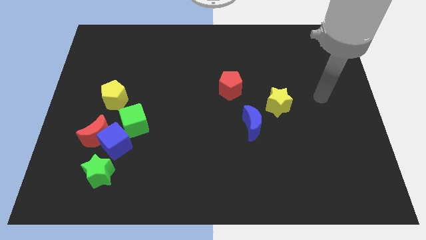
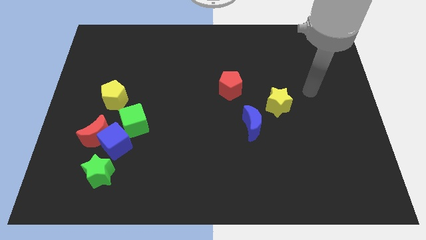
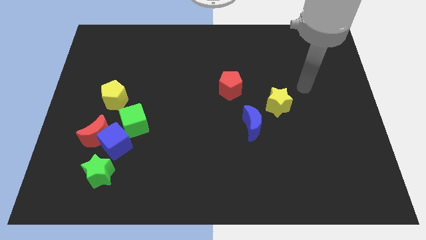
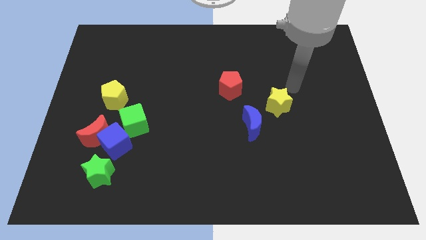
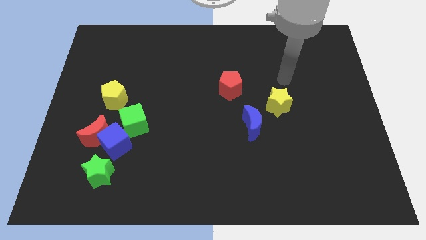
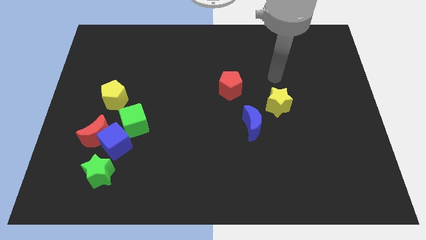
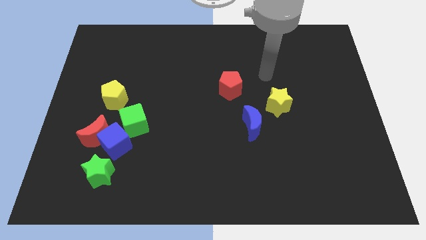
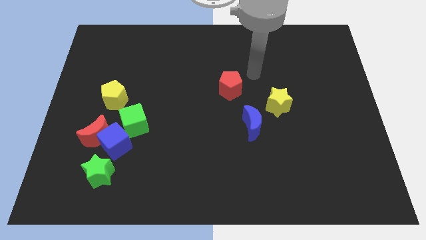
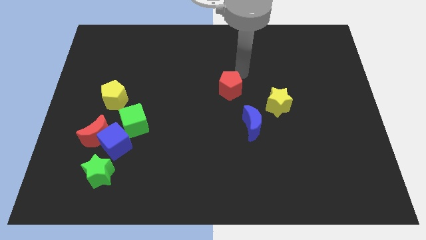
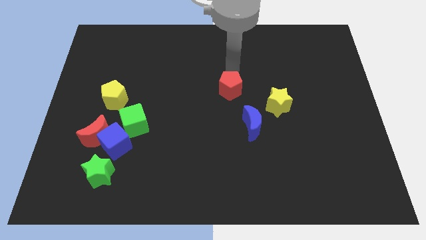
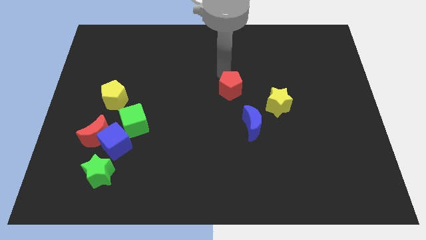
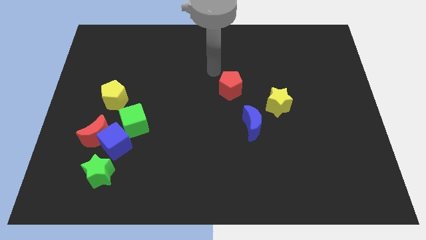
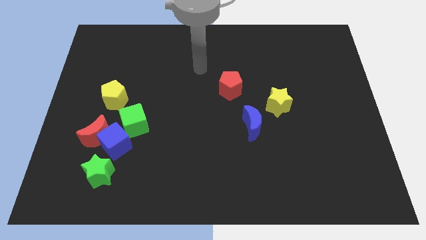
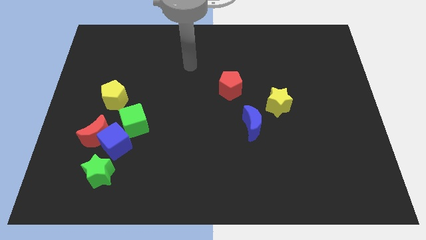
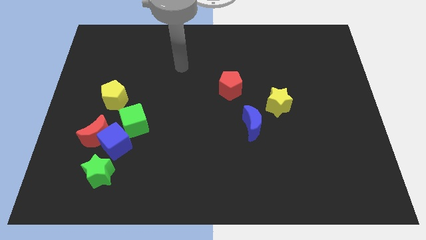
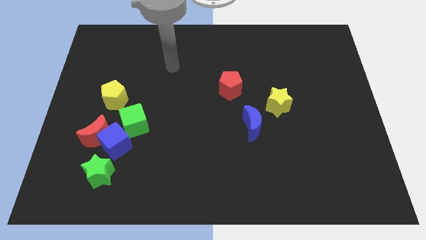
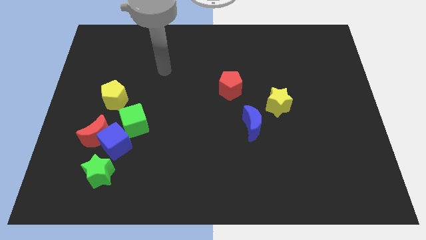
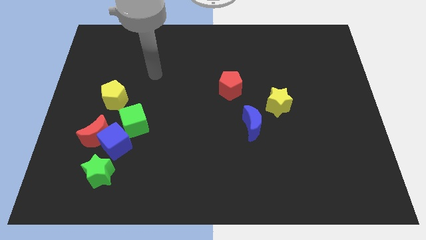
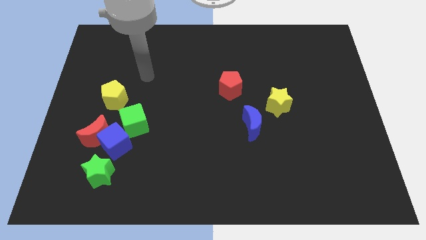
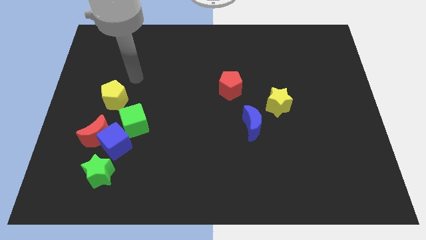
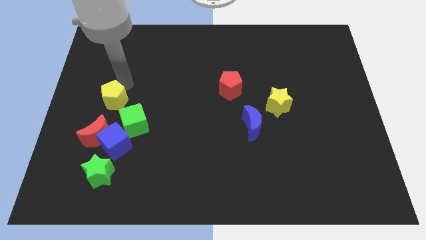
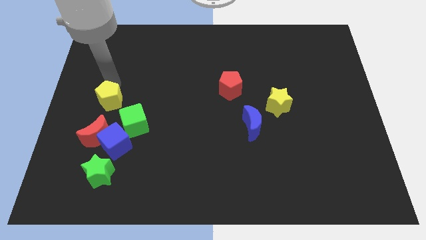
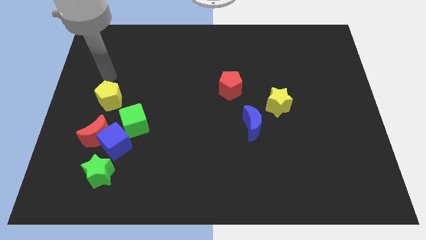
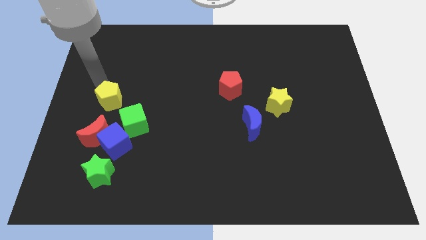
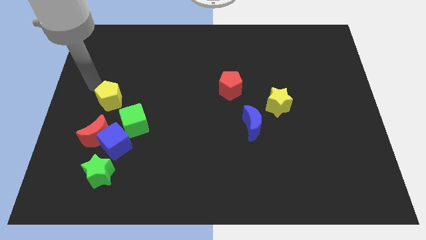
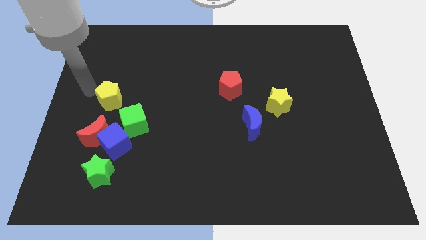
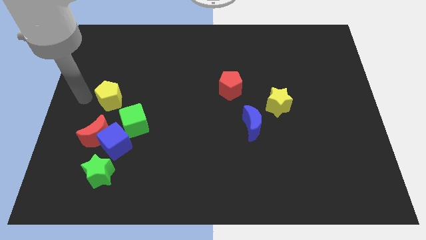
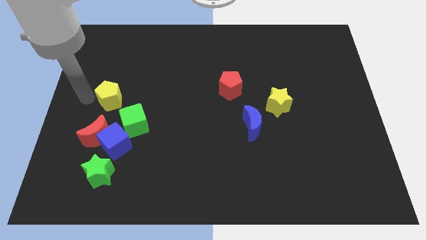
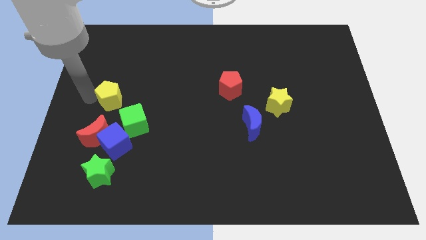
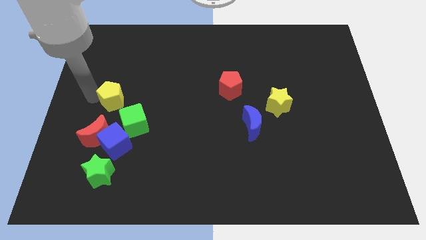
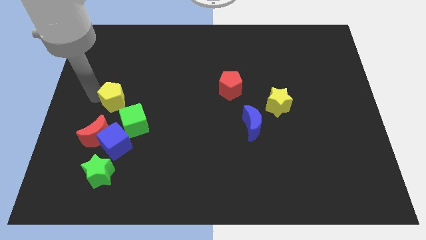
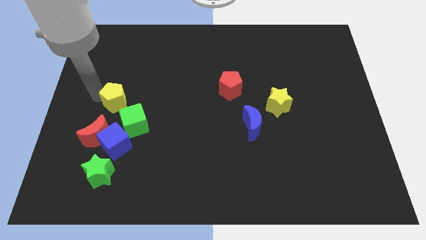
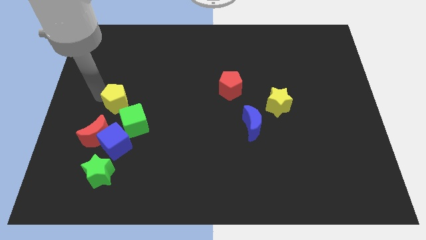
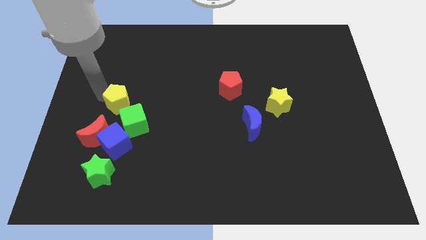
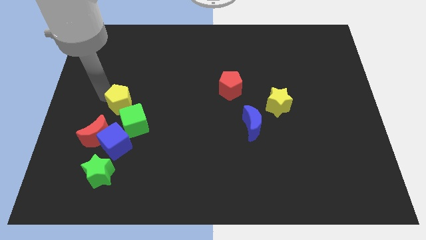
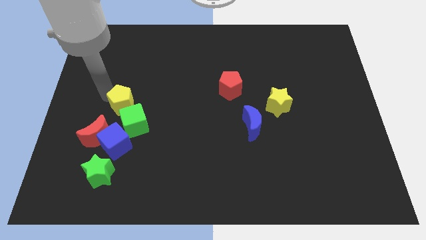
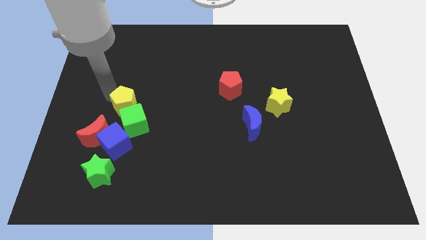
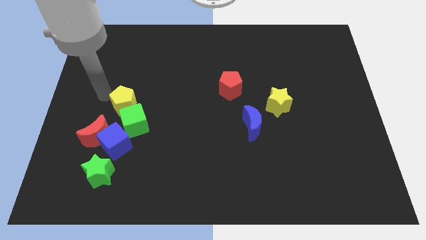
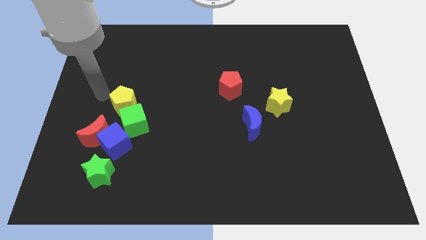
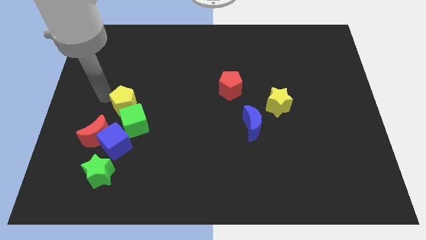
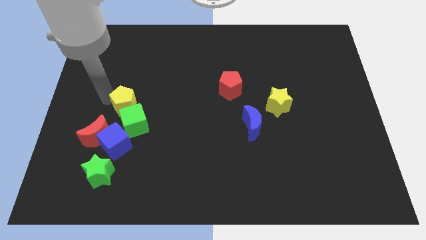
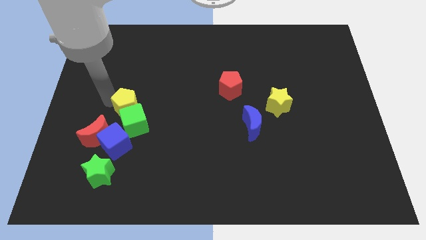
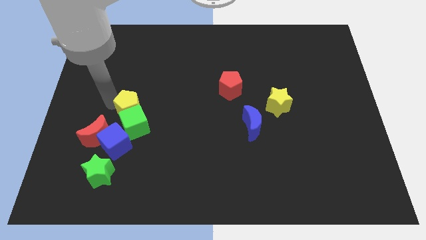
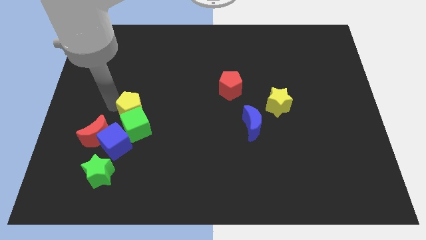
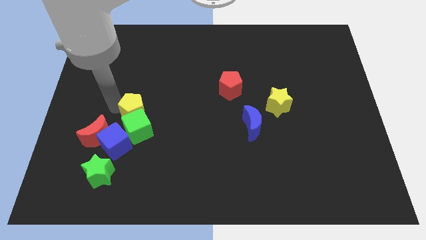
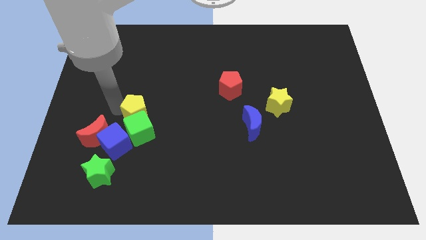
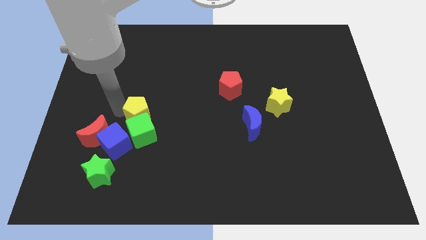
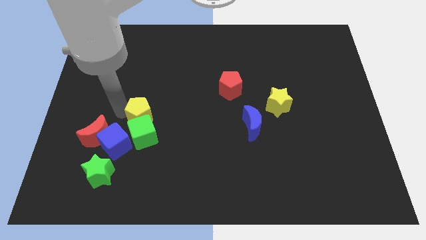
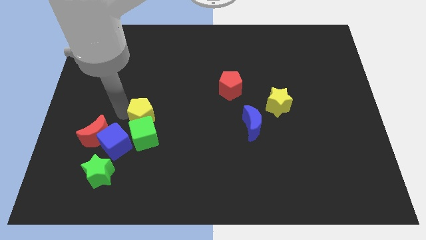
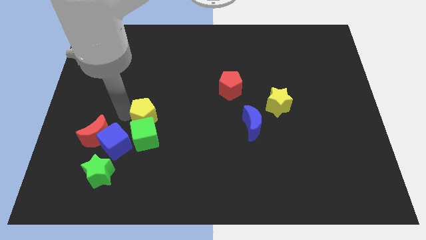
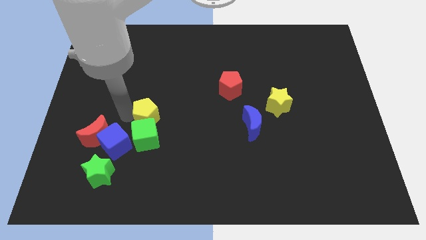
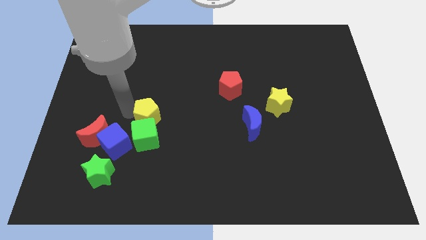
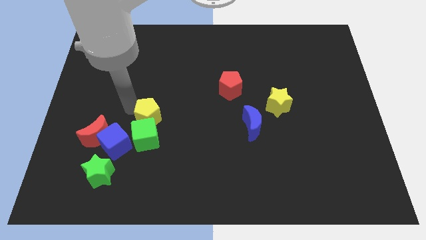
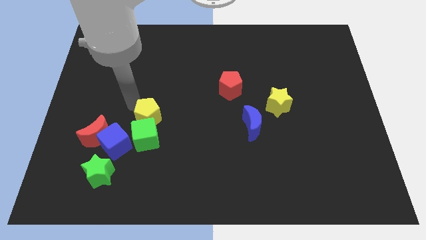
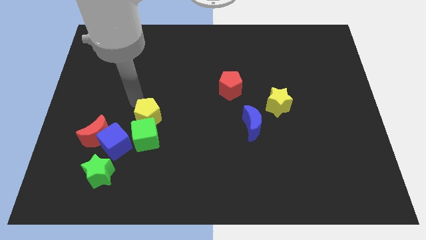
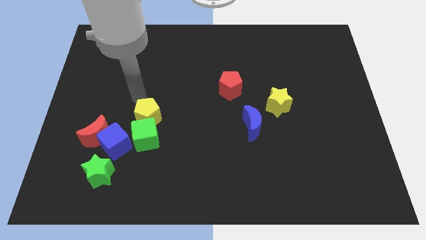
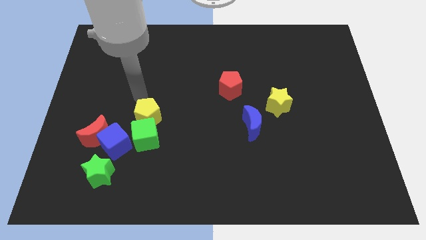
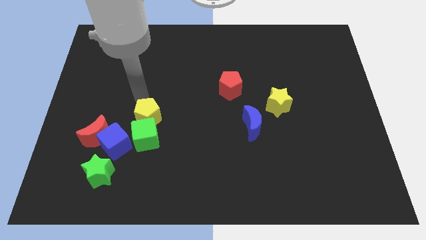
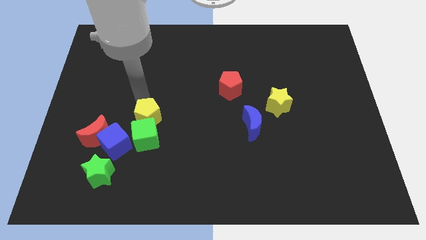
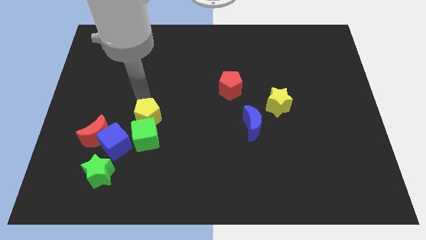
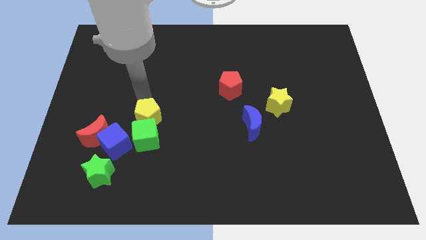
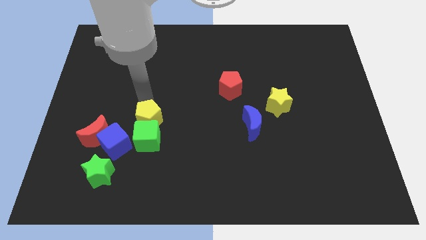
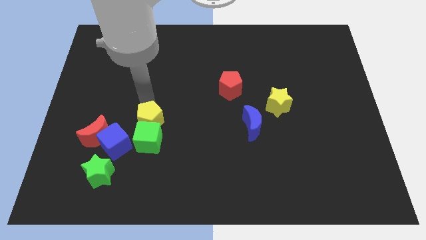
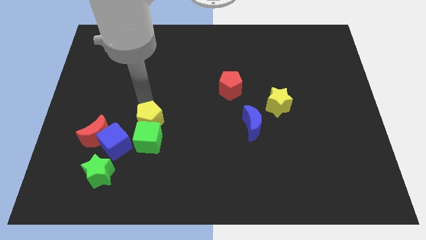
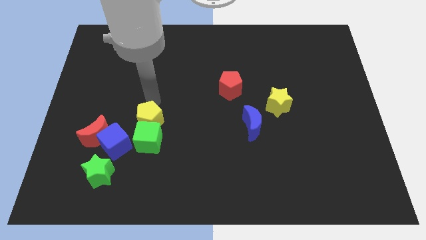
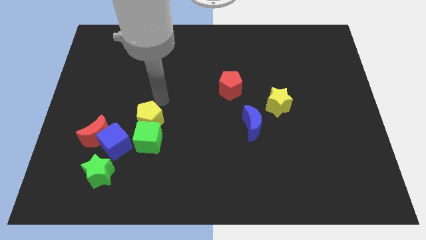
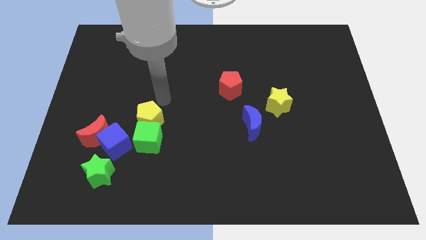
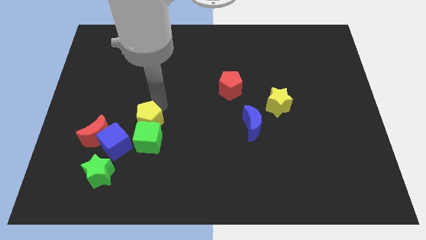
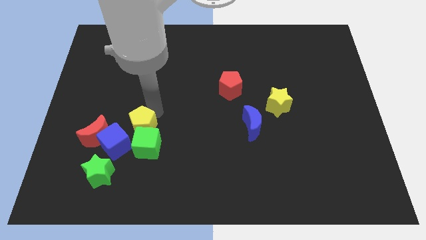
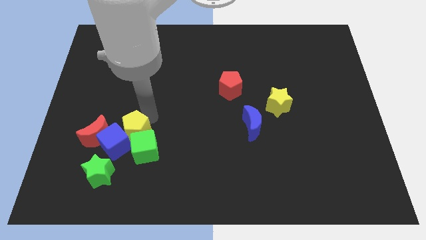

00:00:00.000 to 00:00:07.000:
push the yellow pentagon next to the blue cube

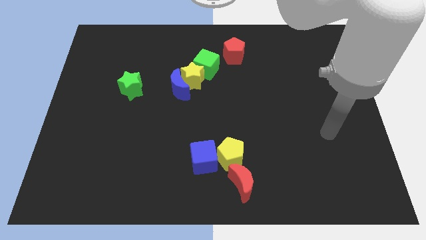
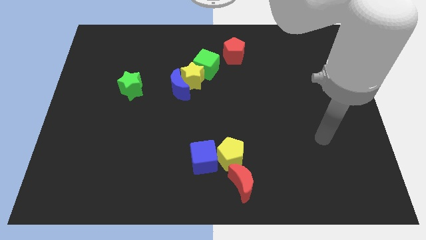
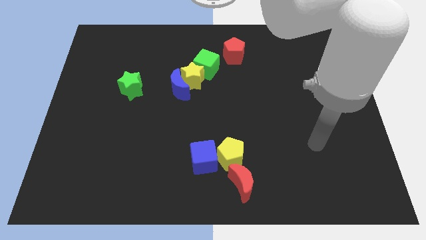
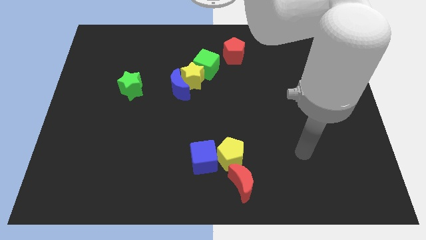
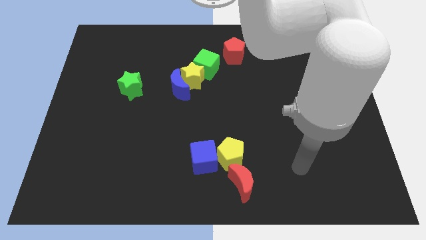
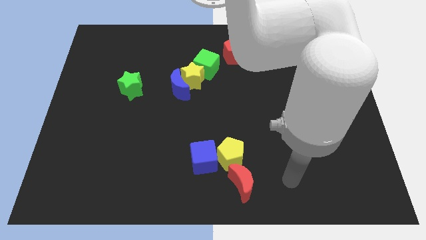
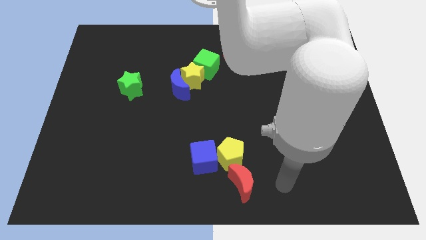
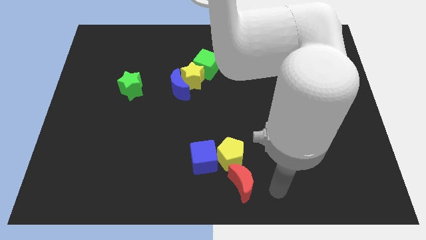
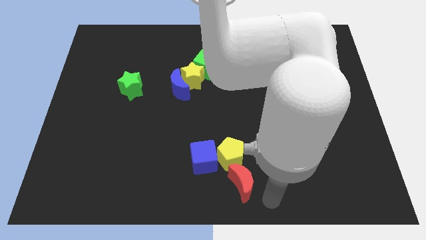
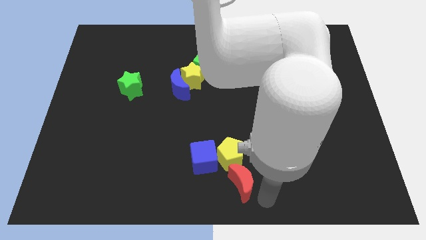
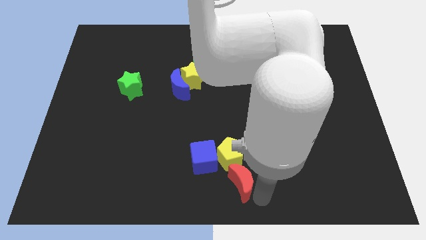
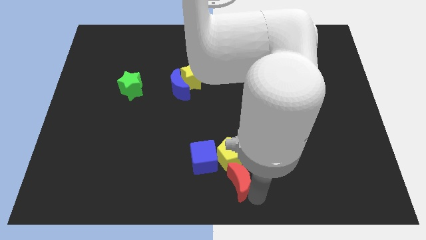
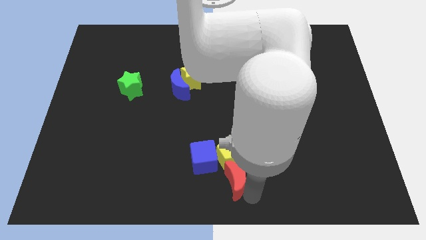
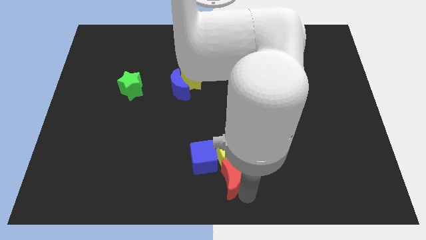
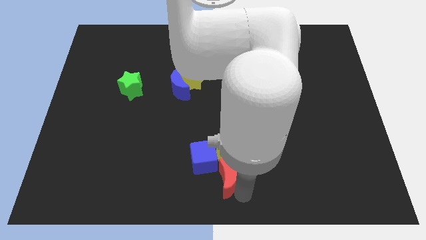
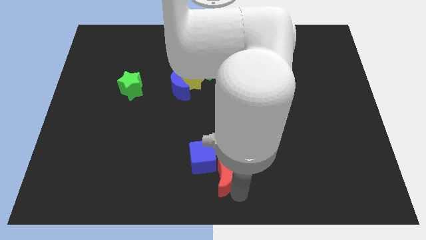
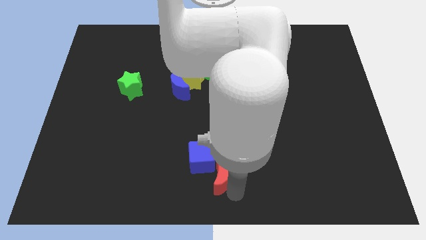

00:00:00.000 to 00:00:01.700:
push the red moon towards the blue cube
